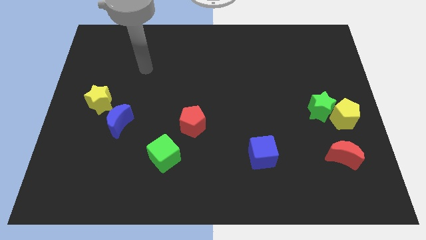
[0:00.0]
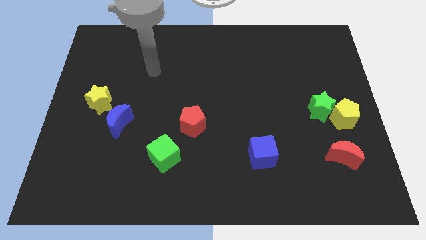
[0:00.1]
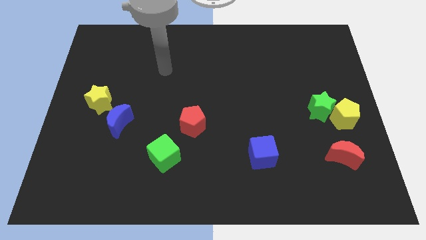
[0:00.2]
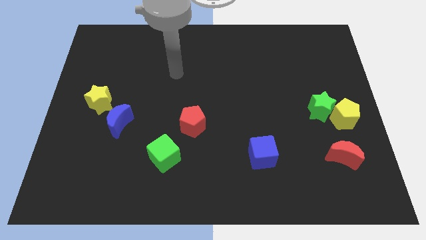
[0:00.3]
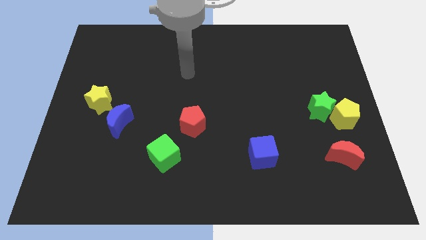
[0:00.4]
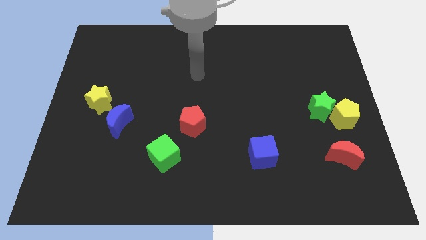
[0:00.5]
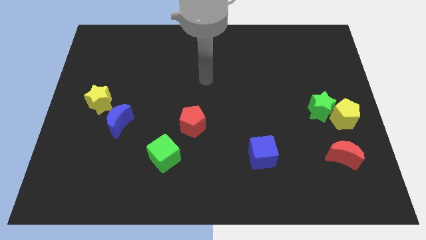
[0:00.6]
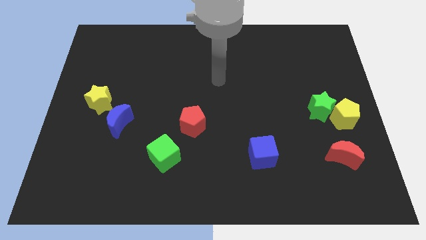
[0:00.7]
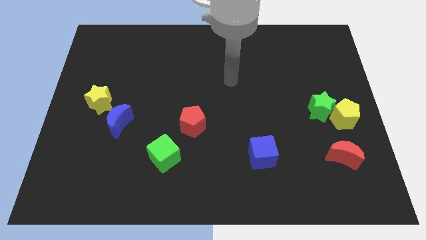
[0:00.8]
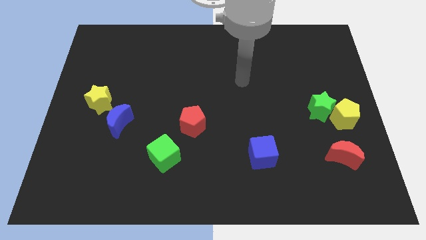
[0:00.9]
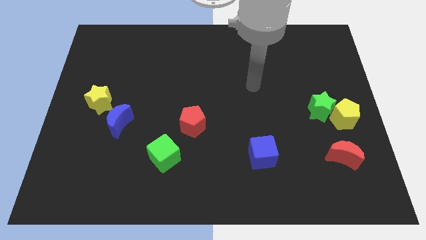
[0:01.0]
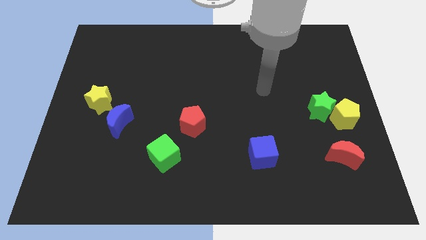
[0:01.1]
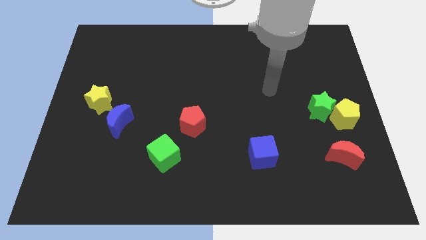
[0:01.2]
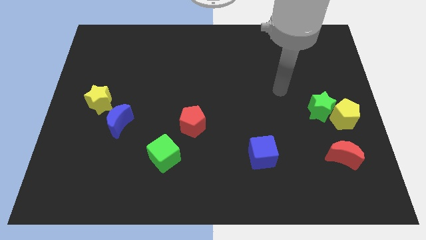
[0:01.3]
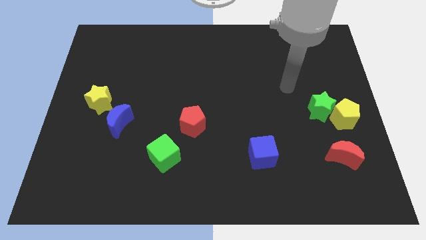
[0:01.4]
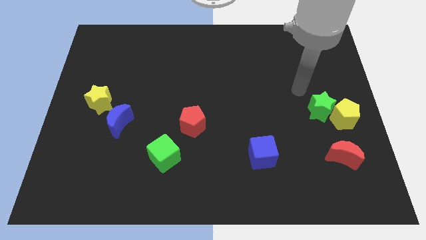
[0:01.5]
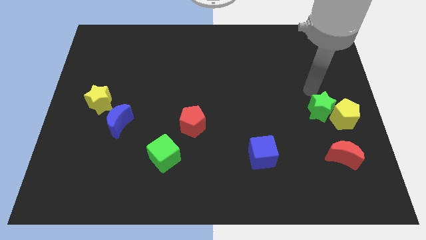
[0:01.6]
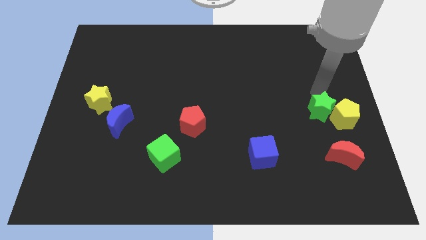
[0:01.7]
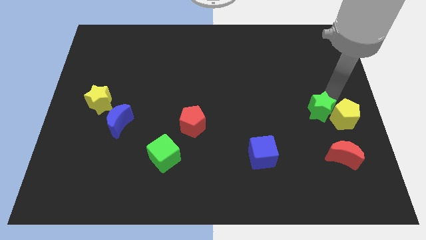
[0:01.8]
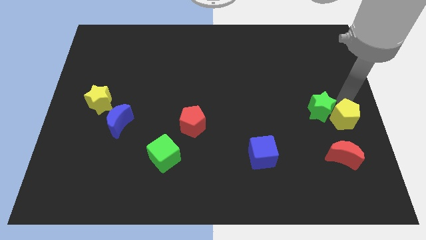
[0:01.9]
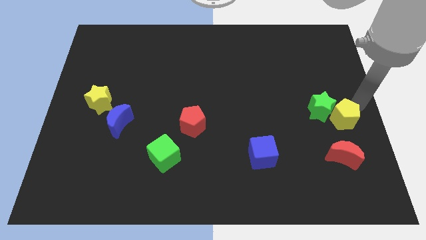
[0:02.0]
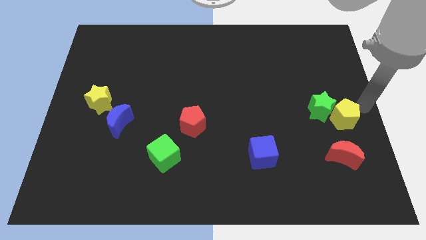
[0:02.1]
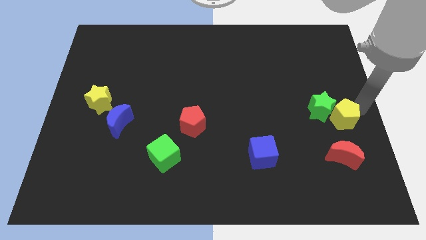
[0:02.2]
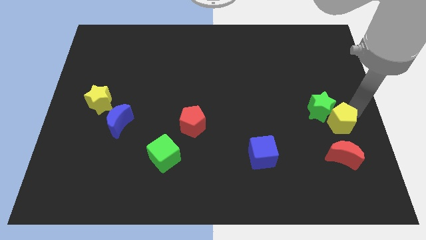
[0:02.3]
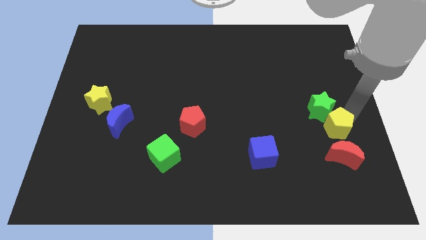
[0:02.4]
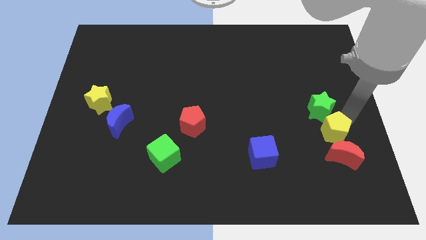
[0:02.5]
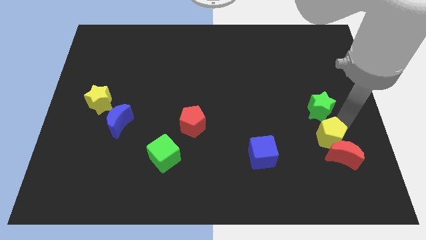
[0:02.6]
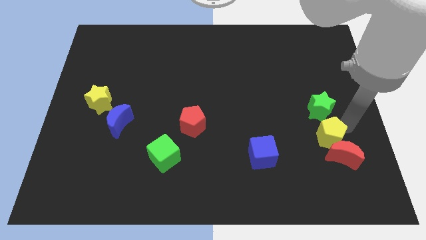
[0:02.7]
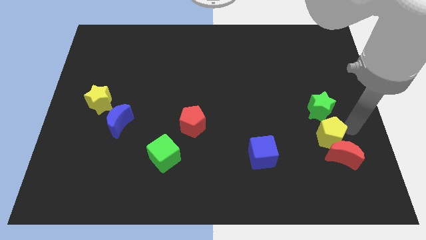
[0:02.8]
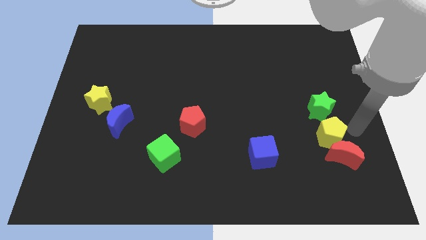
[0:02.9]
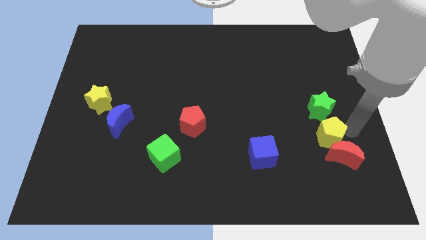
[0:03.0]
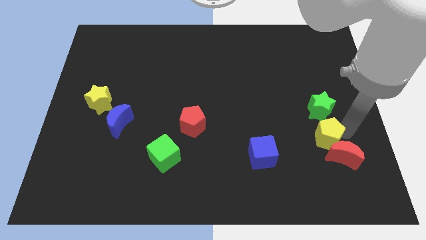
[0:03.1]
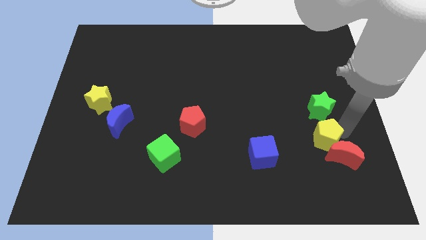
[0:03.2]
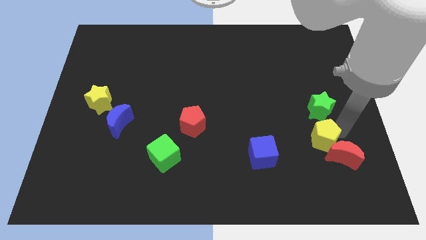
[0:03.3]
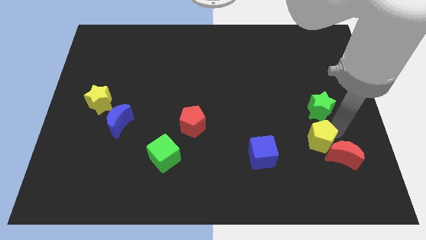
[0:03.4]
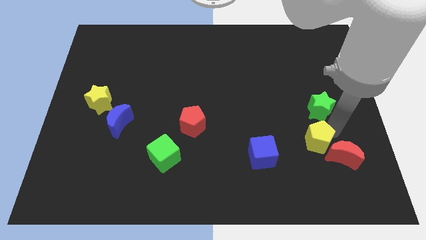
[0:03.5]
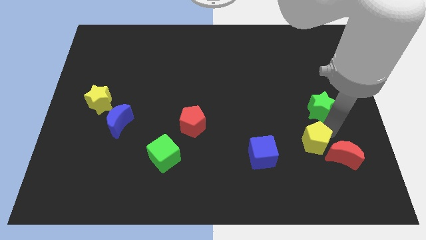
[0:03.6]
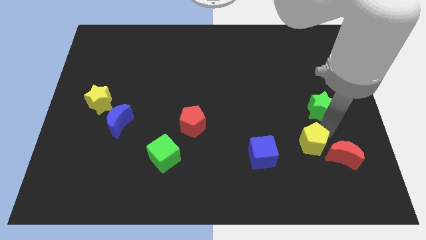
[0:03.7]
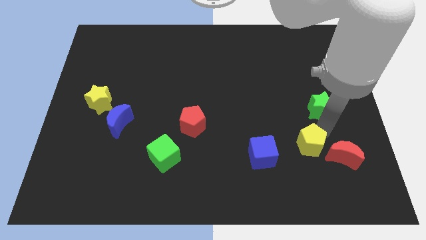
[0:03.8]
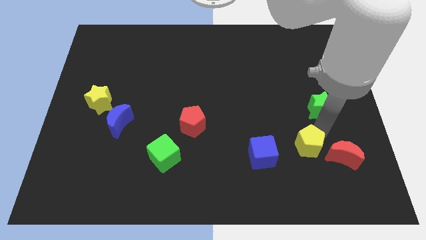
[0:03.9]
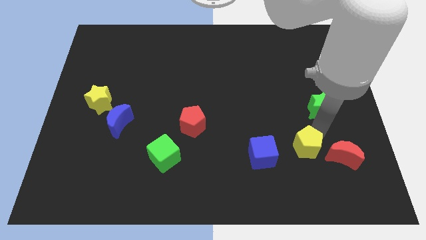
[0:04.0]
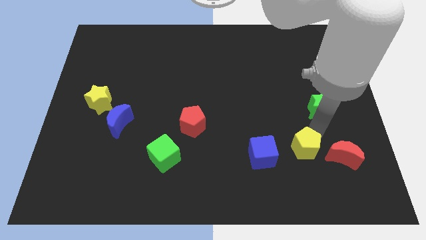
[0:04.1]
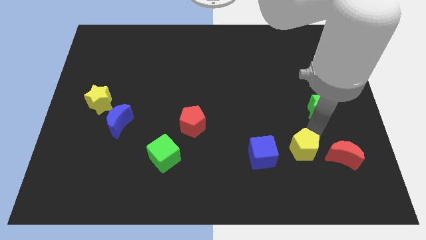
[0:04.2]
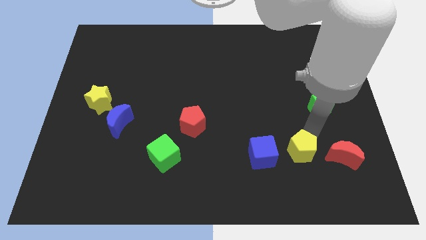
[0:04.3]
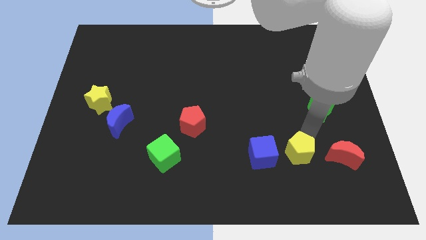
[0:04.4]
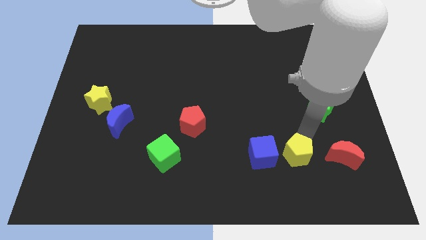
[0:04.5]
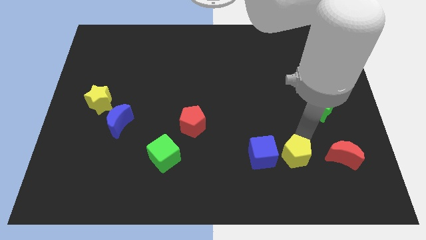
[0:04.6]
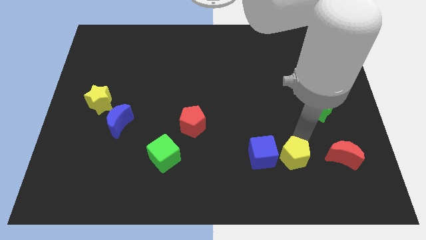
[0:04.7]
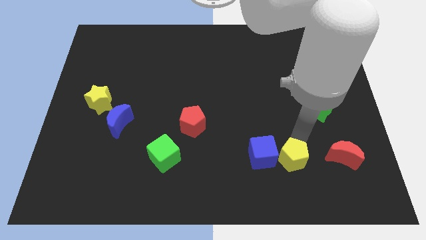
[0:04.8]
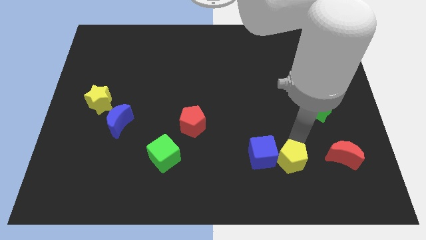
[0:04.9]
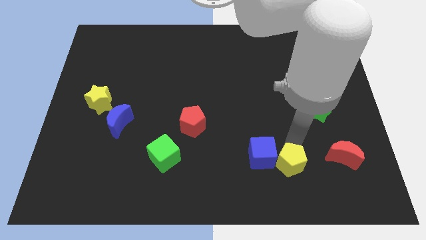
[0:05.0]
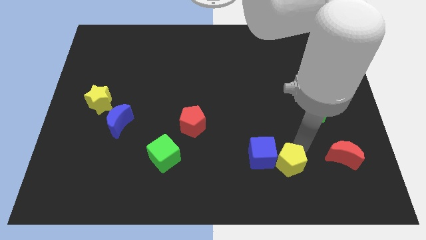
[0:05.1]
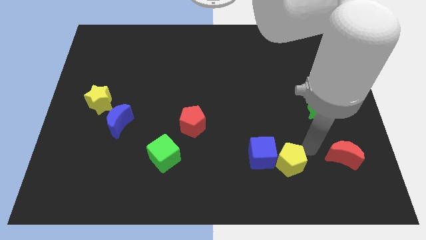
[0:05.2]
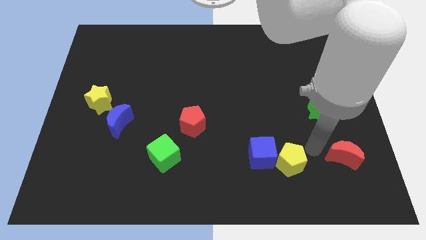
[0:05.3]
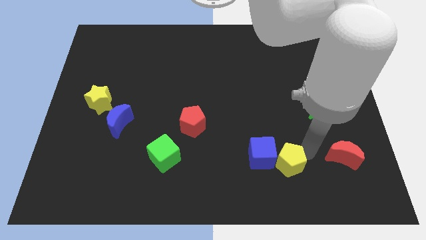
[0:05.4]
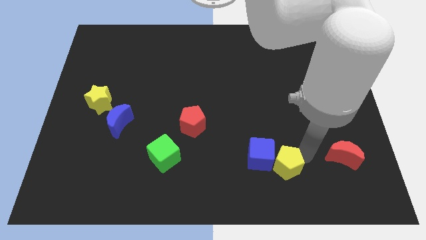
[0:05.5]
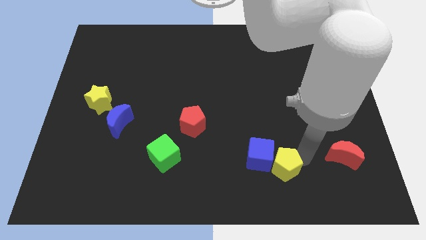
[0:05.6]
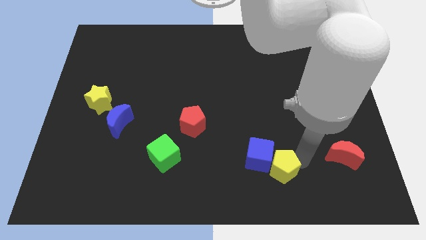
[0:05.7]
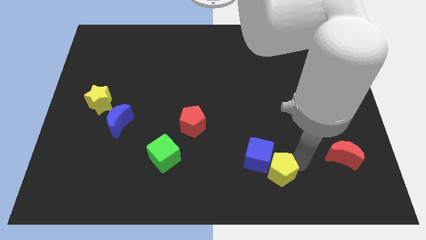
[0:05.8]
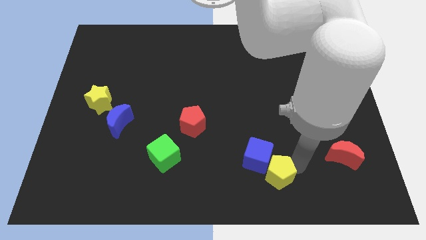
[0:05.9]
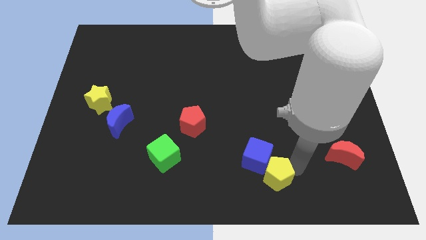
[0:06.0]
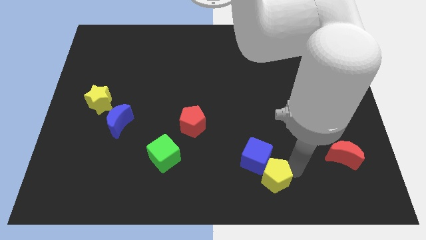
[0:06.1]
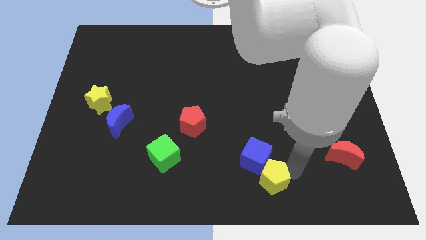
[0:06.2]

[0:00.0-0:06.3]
push the yellow pentagon to the bottom

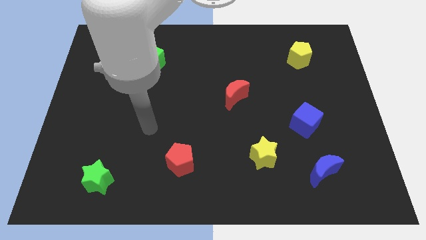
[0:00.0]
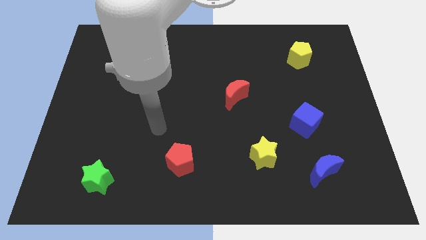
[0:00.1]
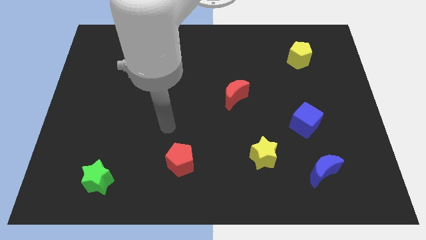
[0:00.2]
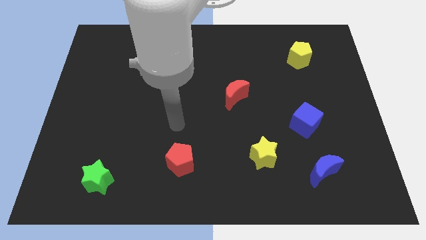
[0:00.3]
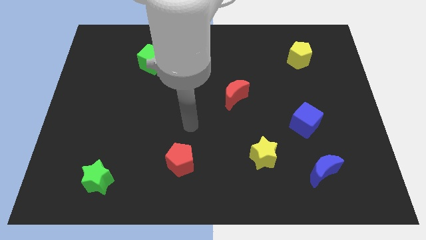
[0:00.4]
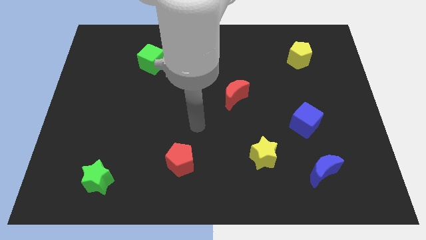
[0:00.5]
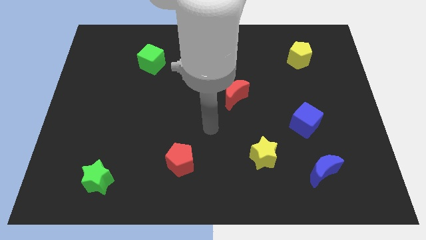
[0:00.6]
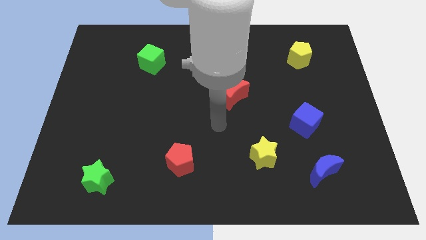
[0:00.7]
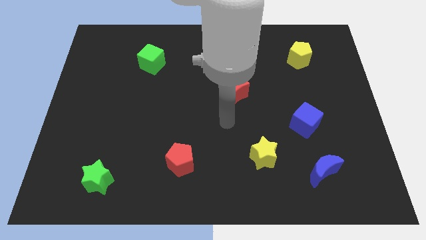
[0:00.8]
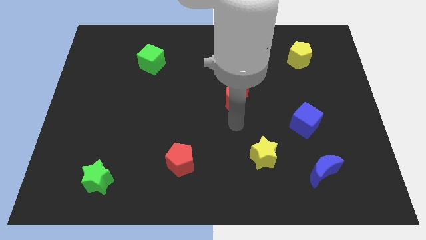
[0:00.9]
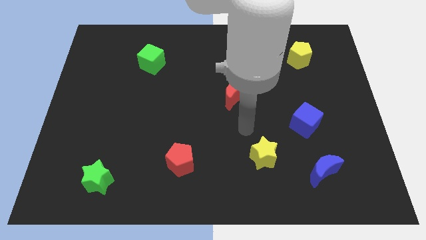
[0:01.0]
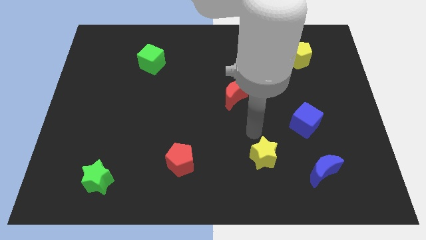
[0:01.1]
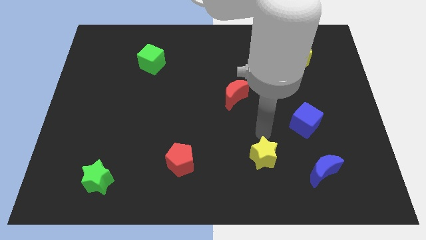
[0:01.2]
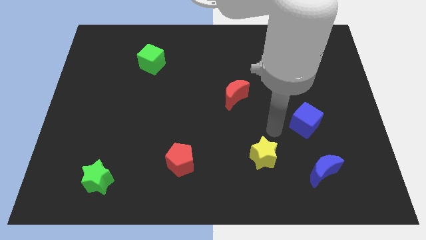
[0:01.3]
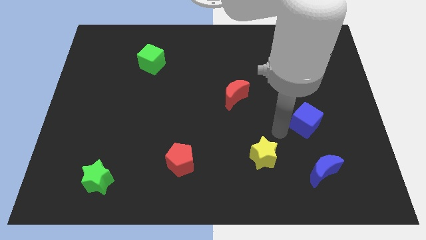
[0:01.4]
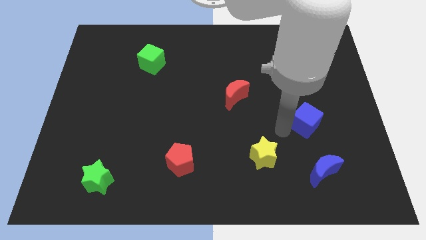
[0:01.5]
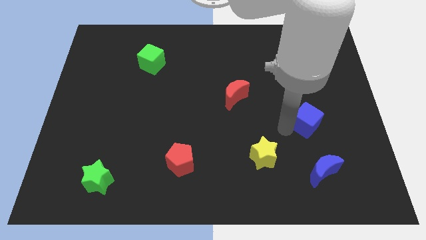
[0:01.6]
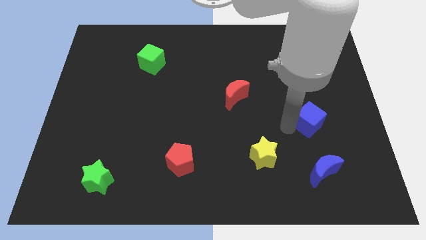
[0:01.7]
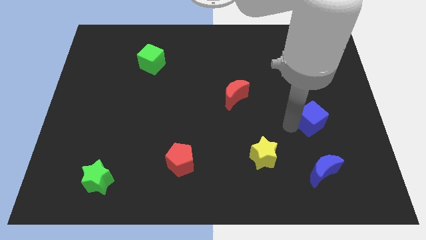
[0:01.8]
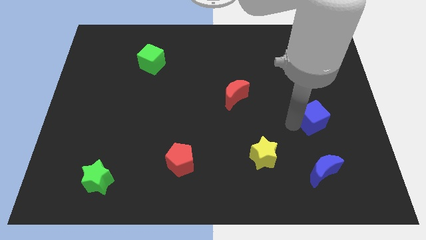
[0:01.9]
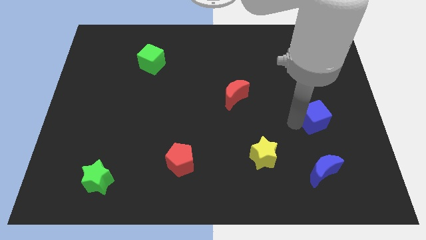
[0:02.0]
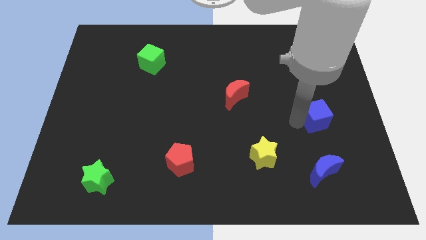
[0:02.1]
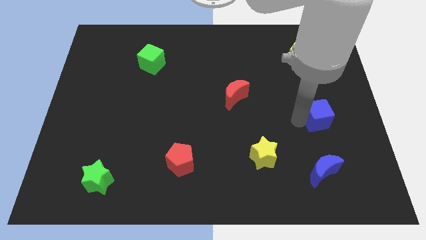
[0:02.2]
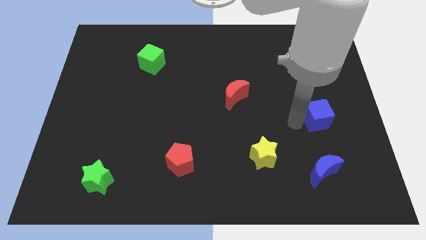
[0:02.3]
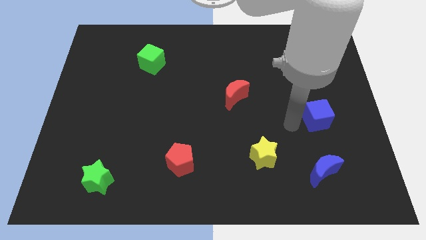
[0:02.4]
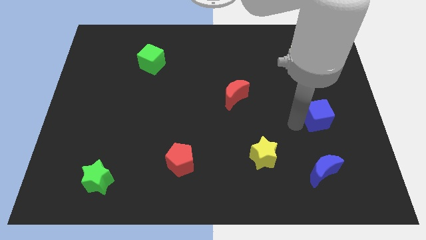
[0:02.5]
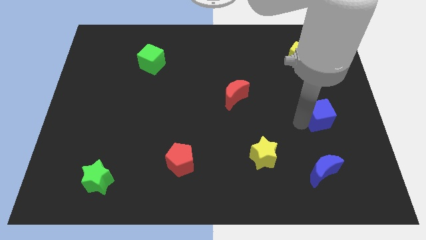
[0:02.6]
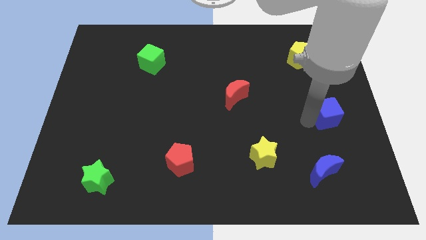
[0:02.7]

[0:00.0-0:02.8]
put the blue cube to the right side of the board
